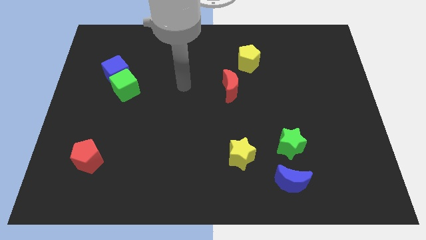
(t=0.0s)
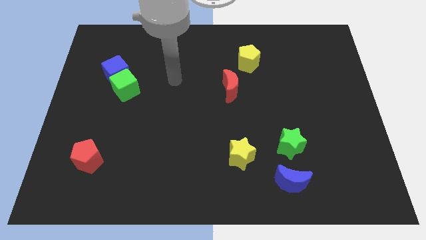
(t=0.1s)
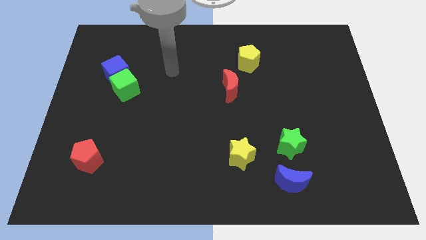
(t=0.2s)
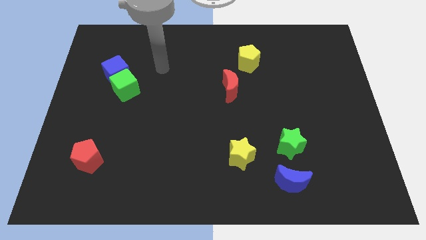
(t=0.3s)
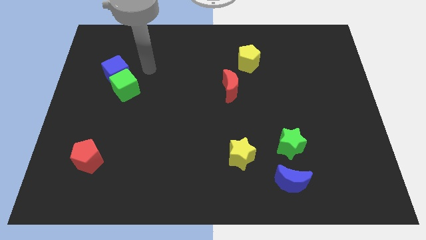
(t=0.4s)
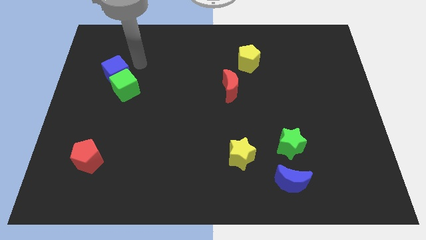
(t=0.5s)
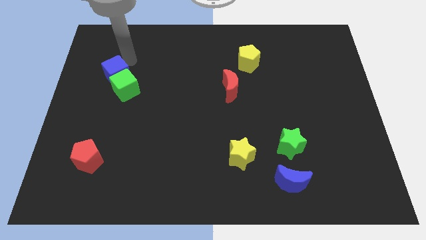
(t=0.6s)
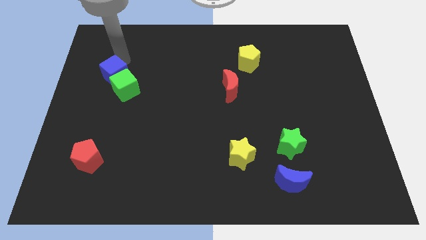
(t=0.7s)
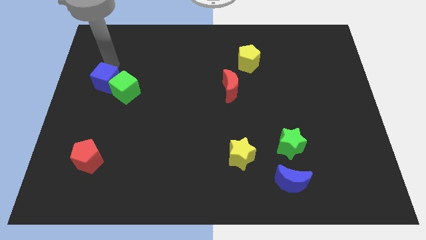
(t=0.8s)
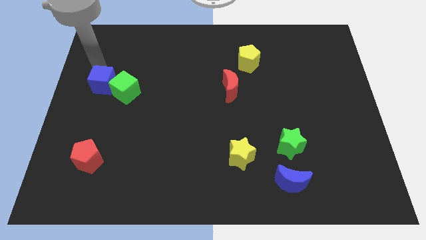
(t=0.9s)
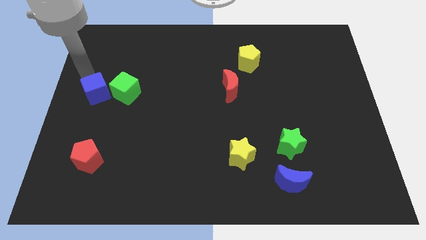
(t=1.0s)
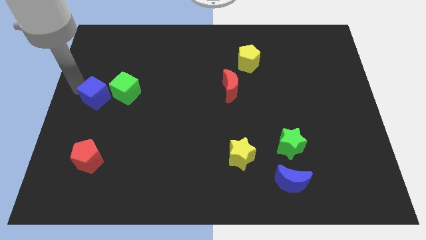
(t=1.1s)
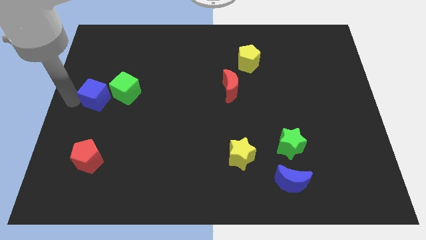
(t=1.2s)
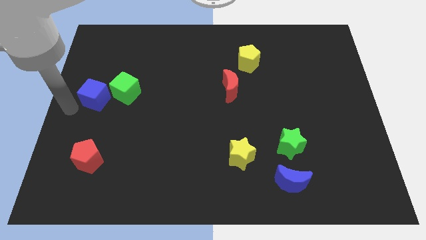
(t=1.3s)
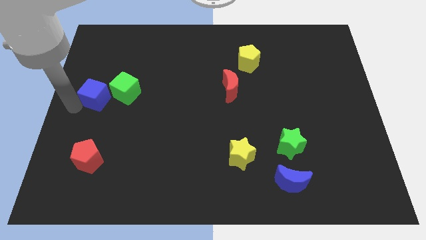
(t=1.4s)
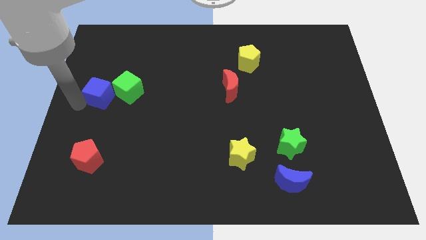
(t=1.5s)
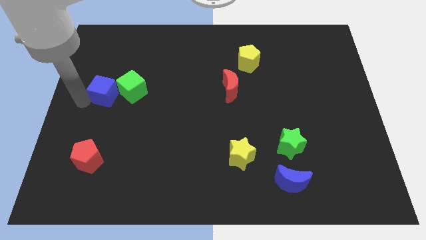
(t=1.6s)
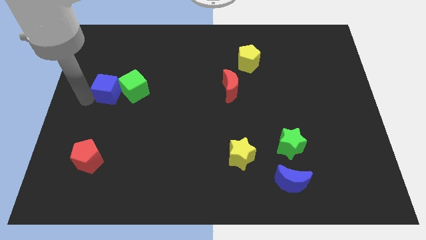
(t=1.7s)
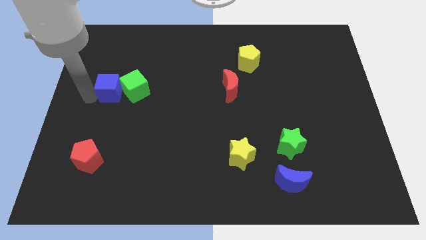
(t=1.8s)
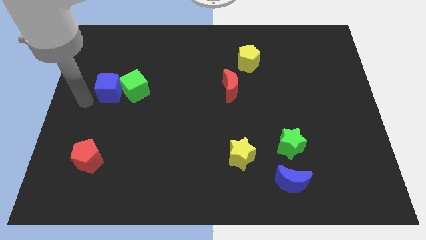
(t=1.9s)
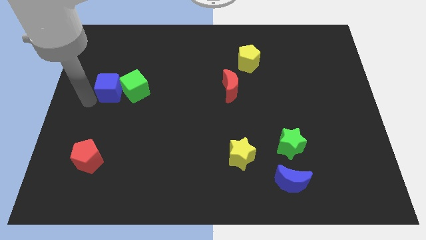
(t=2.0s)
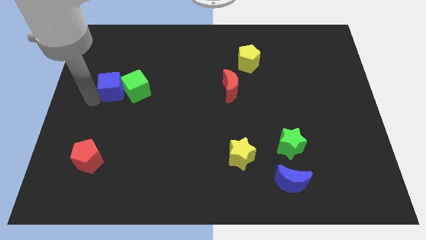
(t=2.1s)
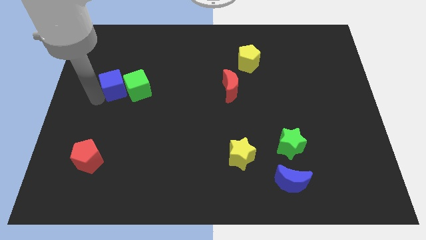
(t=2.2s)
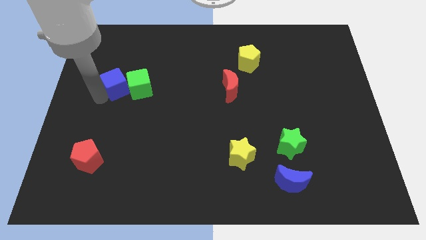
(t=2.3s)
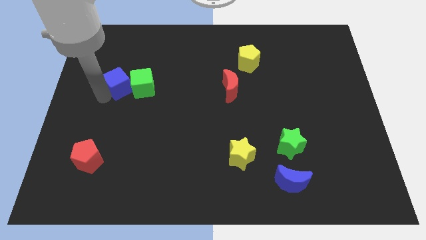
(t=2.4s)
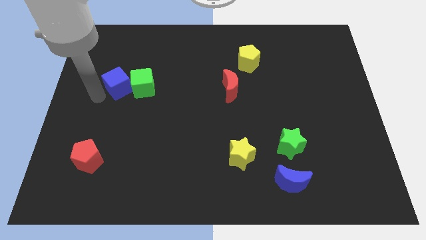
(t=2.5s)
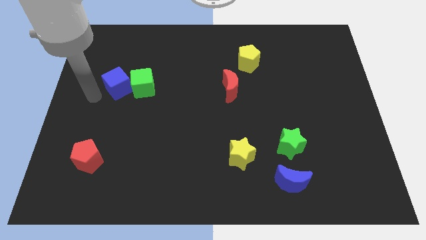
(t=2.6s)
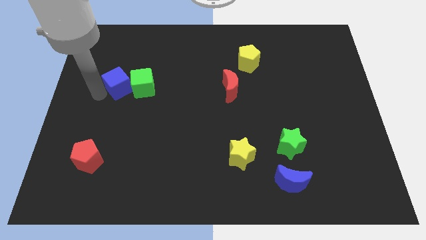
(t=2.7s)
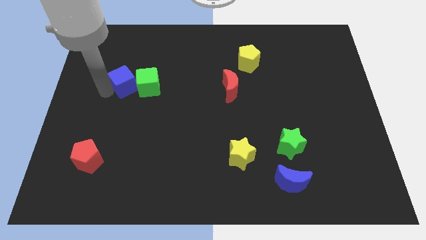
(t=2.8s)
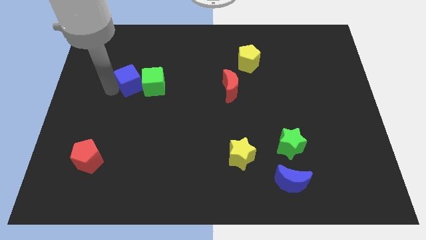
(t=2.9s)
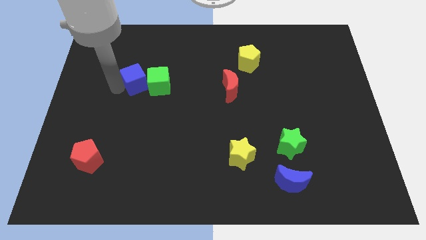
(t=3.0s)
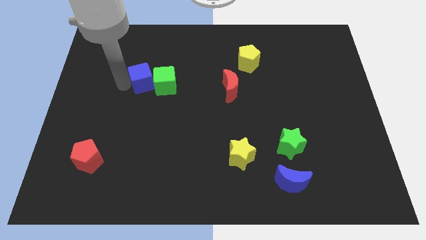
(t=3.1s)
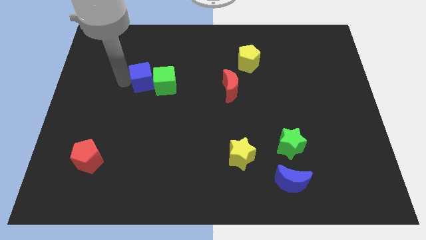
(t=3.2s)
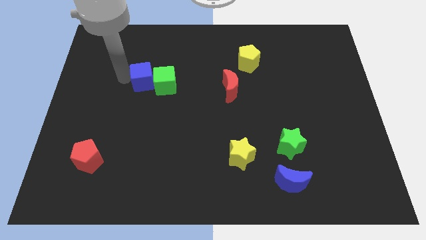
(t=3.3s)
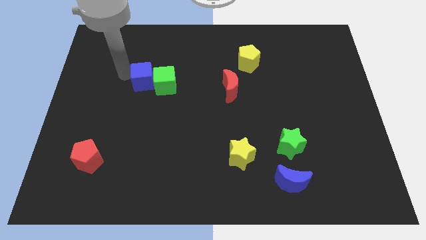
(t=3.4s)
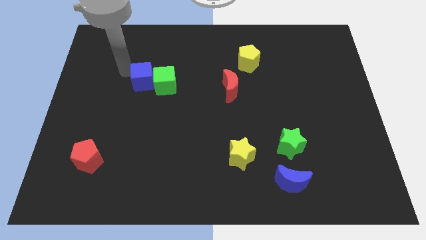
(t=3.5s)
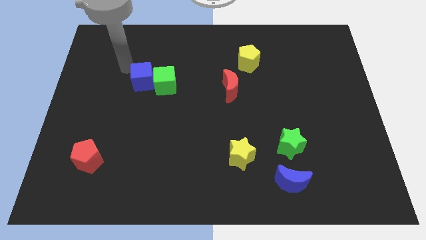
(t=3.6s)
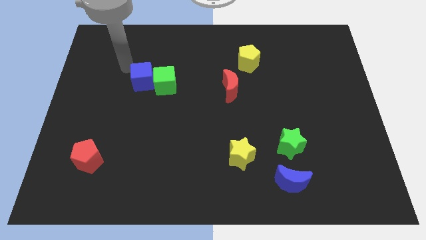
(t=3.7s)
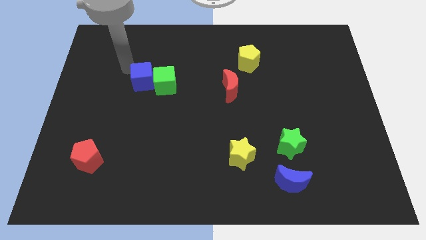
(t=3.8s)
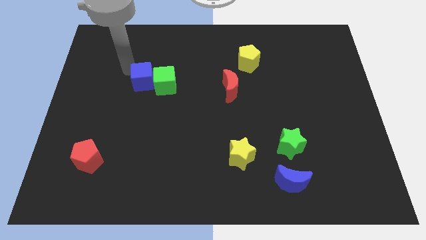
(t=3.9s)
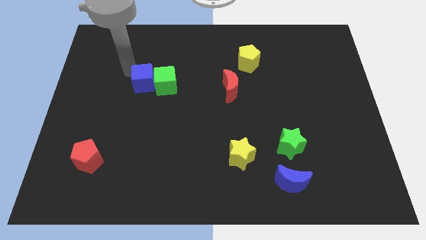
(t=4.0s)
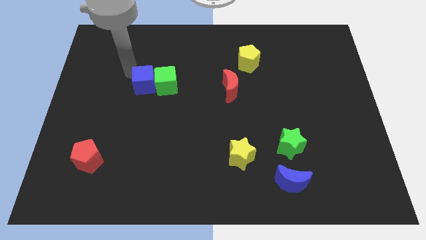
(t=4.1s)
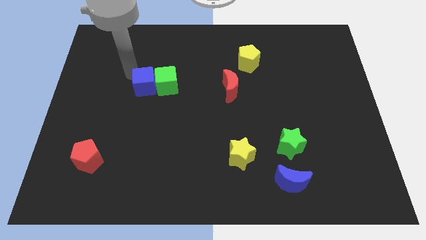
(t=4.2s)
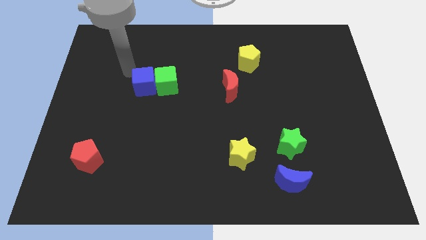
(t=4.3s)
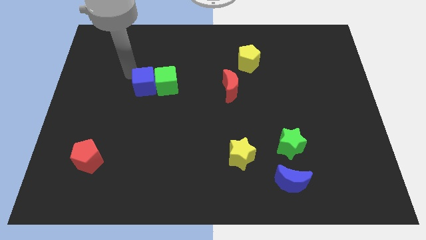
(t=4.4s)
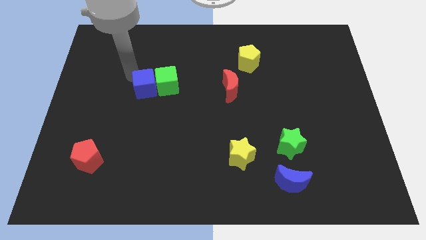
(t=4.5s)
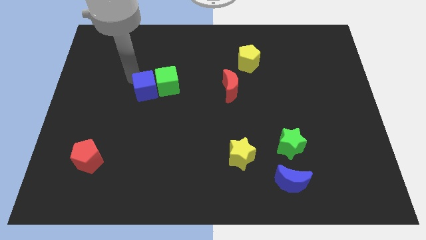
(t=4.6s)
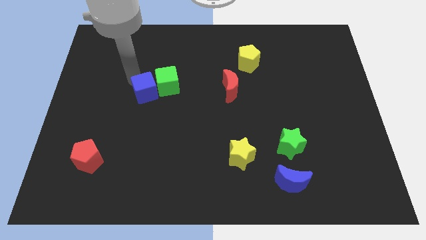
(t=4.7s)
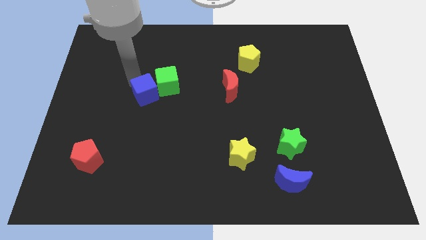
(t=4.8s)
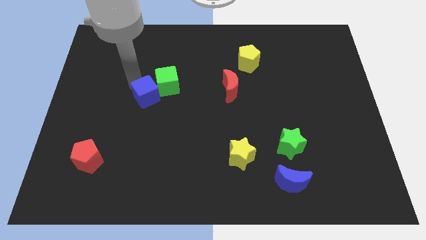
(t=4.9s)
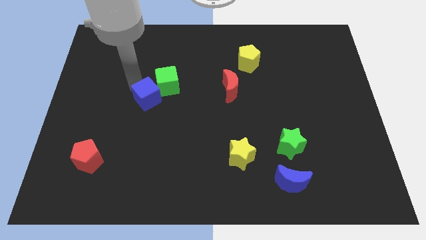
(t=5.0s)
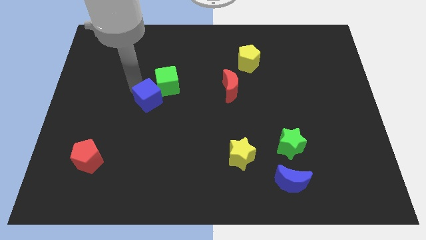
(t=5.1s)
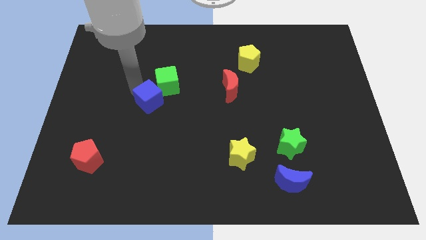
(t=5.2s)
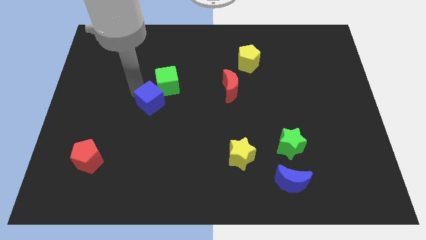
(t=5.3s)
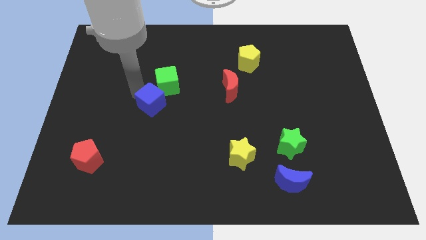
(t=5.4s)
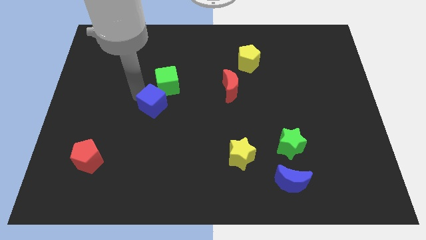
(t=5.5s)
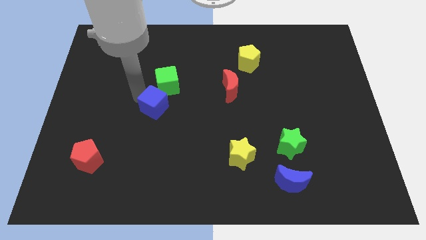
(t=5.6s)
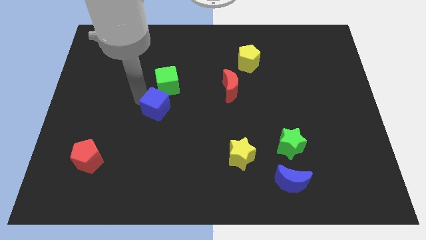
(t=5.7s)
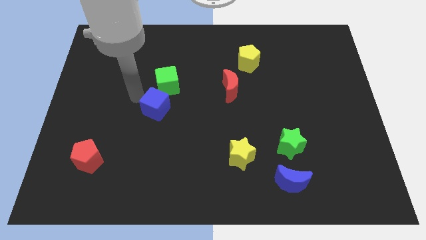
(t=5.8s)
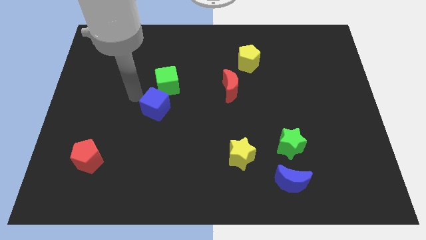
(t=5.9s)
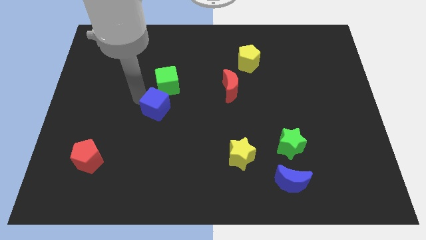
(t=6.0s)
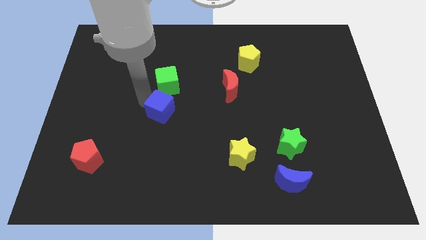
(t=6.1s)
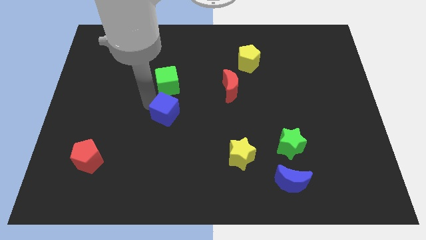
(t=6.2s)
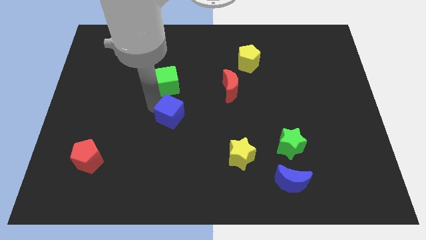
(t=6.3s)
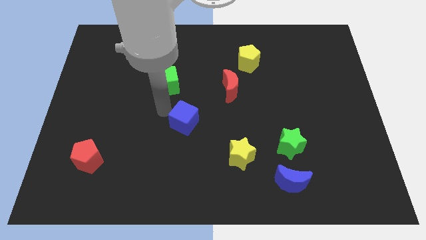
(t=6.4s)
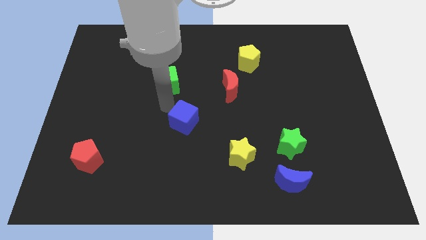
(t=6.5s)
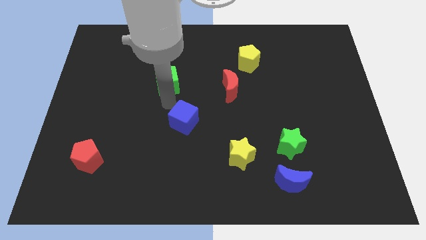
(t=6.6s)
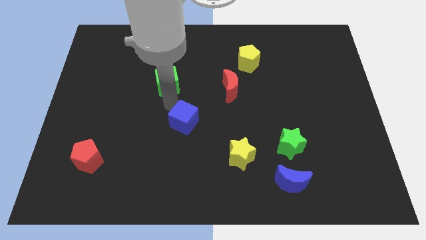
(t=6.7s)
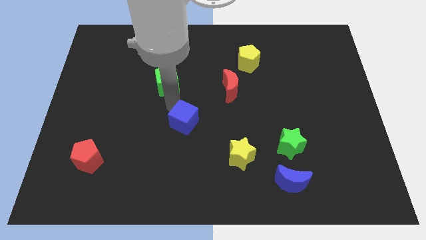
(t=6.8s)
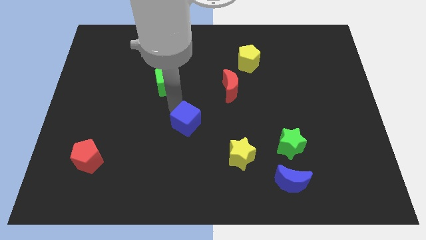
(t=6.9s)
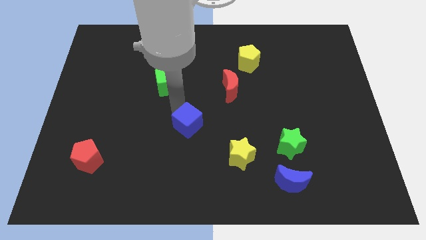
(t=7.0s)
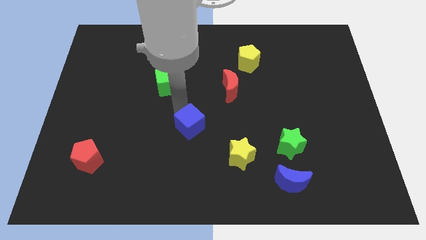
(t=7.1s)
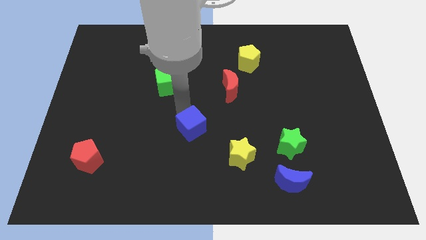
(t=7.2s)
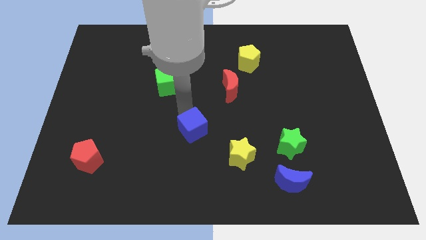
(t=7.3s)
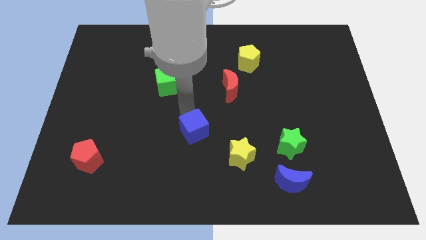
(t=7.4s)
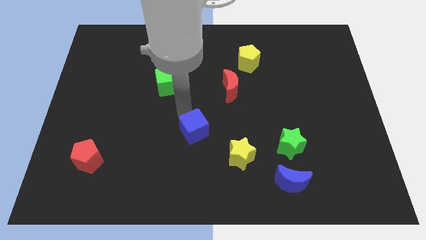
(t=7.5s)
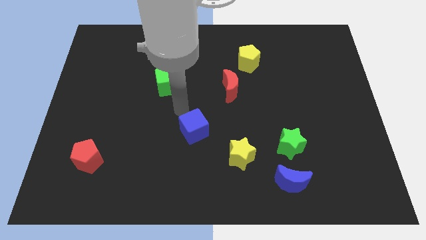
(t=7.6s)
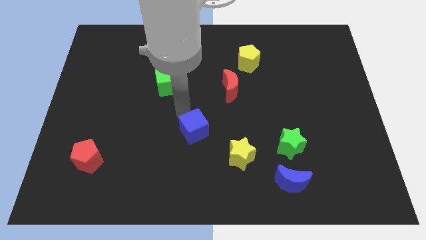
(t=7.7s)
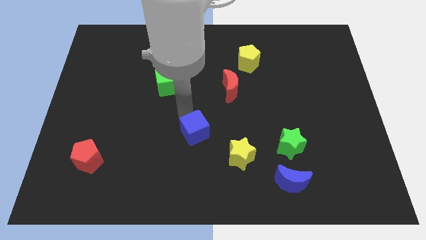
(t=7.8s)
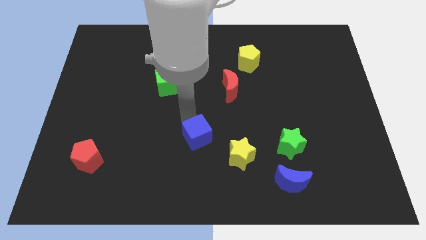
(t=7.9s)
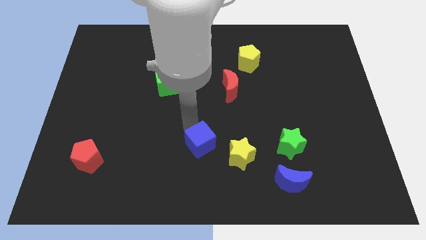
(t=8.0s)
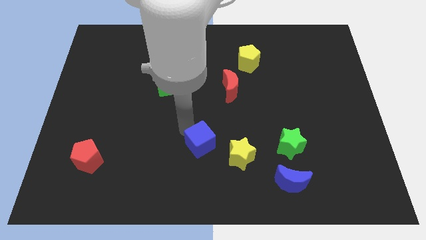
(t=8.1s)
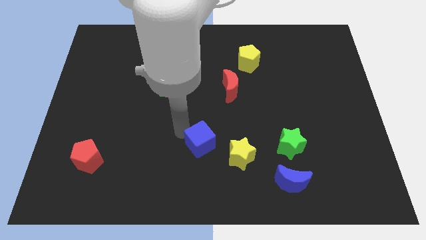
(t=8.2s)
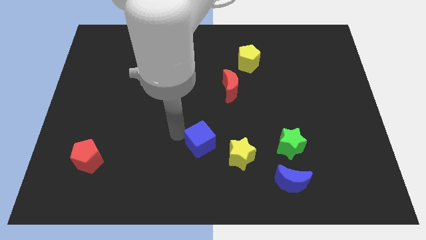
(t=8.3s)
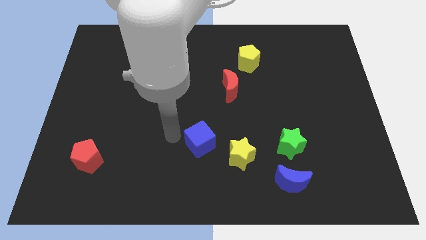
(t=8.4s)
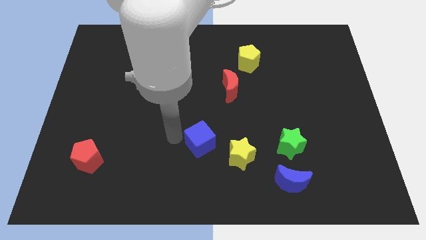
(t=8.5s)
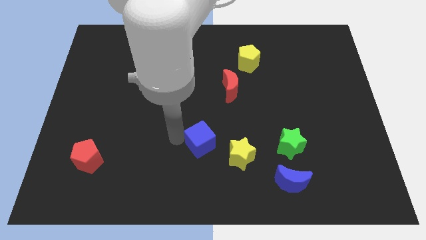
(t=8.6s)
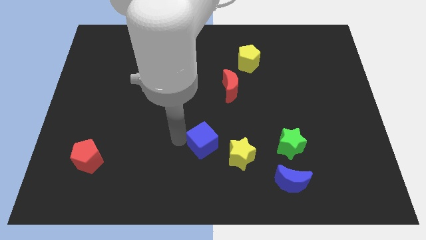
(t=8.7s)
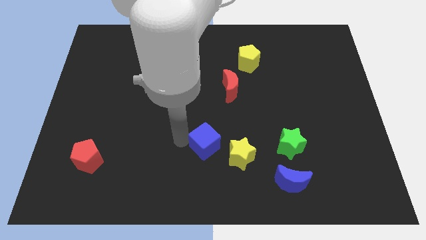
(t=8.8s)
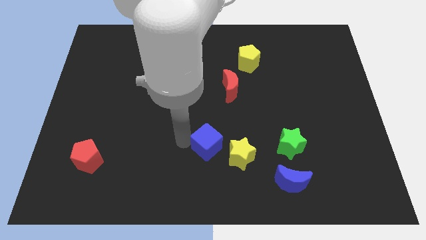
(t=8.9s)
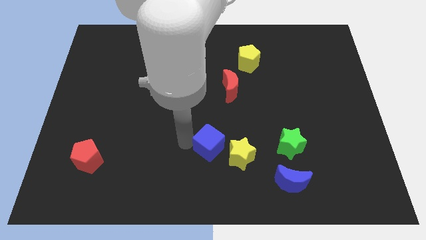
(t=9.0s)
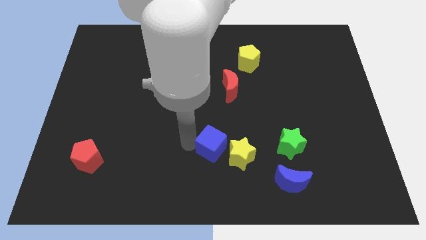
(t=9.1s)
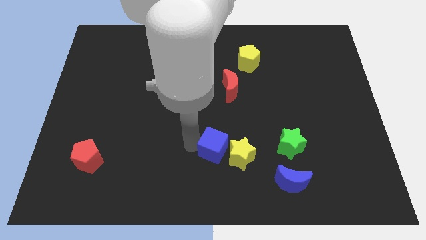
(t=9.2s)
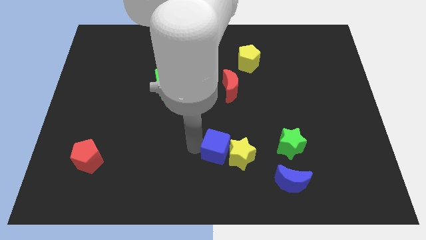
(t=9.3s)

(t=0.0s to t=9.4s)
move the blue cube to the left side of the green star
